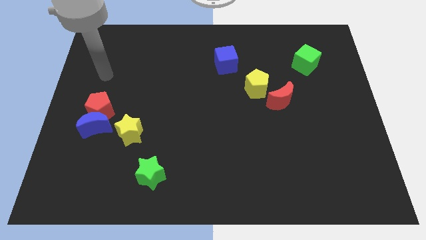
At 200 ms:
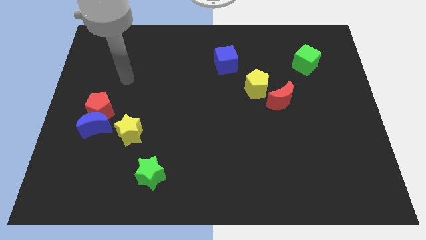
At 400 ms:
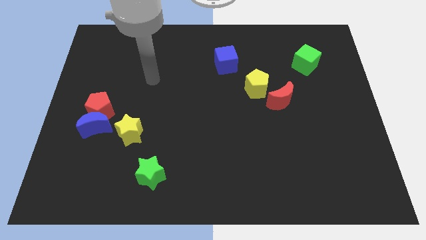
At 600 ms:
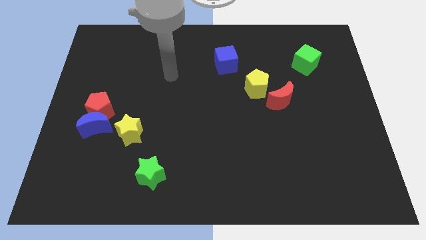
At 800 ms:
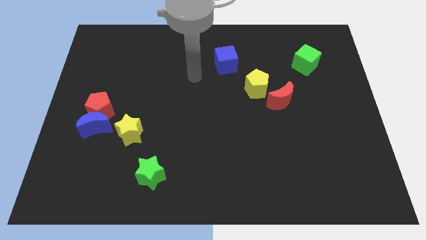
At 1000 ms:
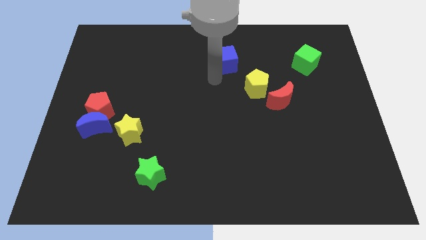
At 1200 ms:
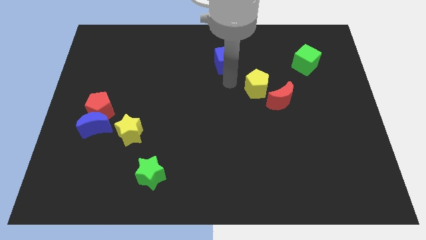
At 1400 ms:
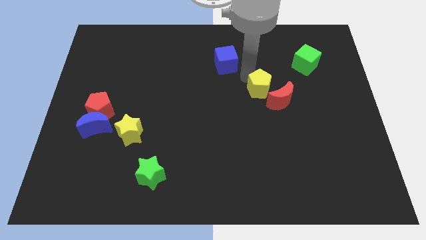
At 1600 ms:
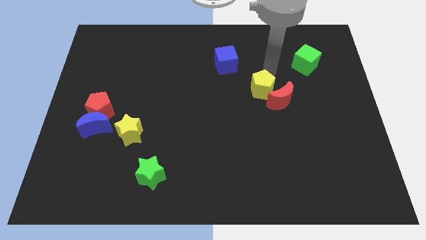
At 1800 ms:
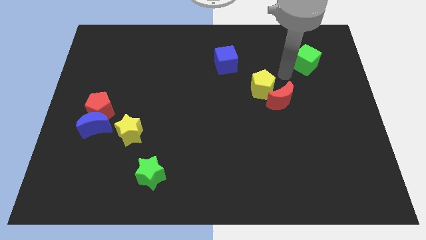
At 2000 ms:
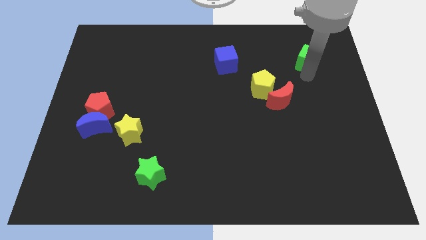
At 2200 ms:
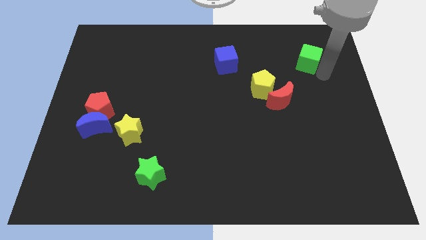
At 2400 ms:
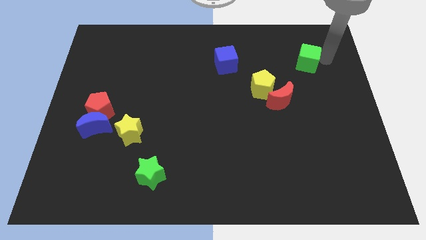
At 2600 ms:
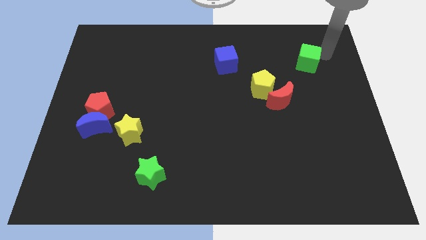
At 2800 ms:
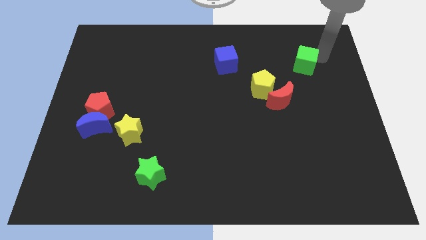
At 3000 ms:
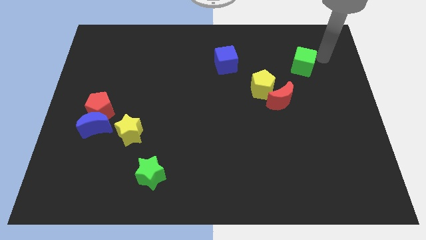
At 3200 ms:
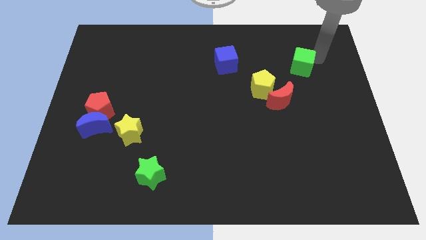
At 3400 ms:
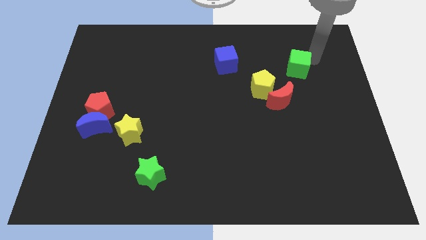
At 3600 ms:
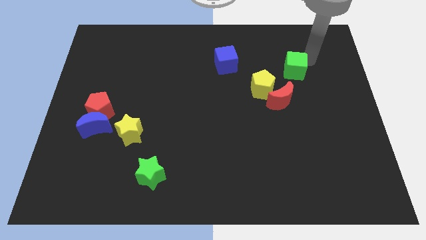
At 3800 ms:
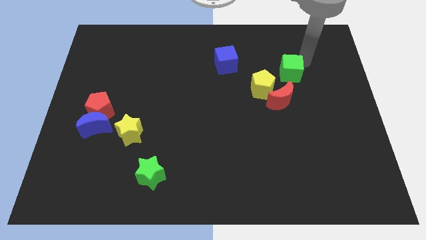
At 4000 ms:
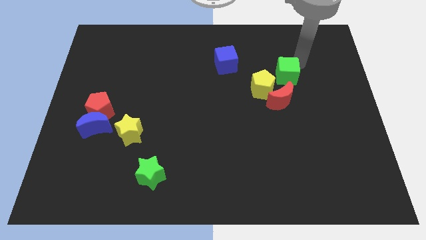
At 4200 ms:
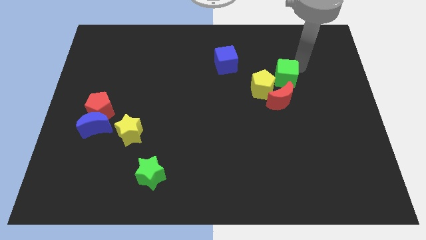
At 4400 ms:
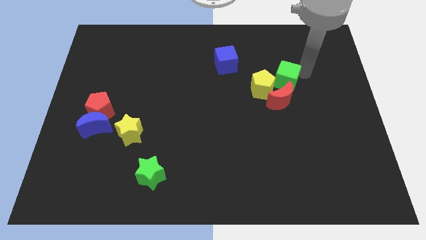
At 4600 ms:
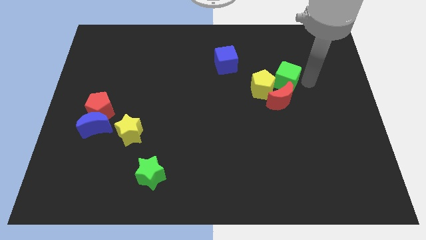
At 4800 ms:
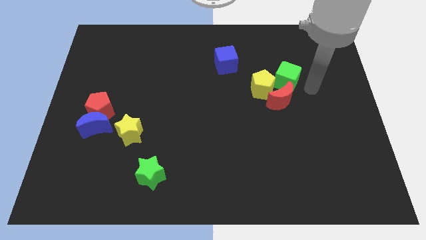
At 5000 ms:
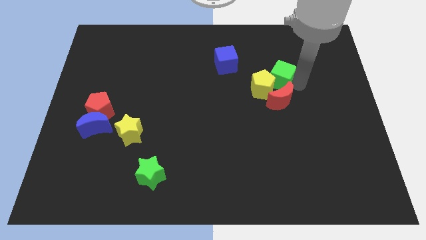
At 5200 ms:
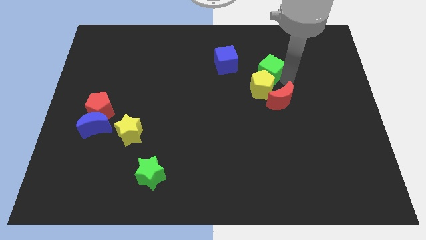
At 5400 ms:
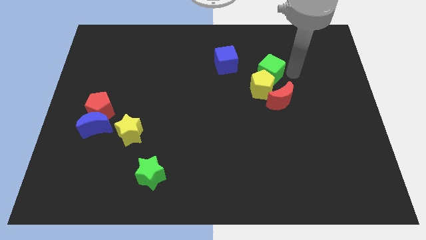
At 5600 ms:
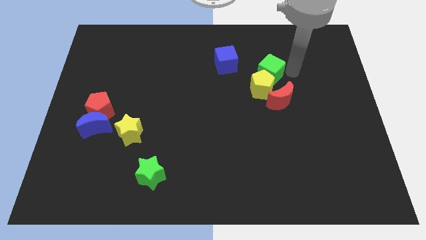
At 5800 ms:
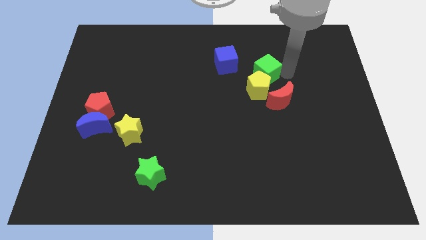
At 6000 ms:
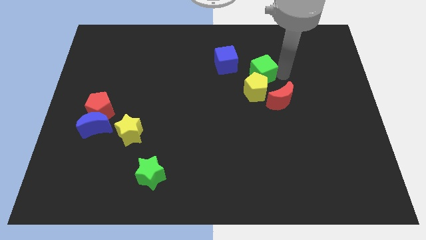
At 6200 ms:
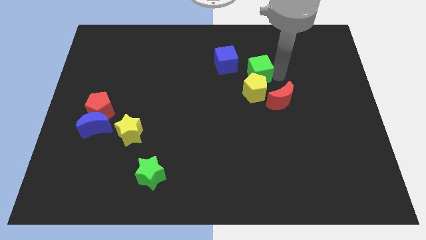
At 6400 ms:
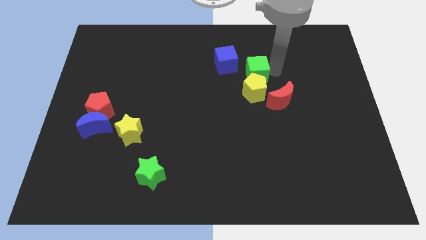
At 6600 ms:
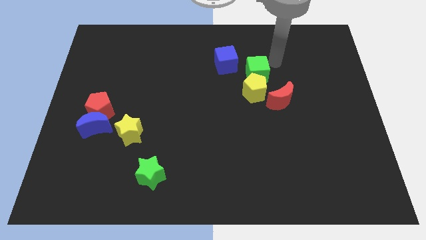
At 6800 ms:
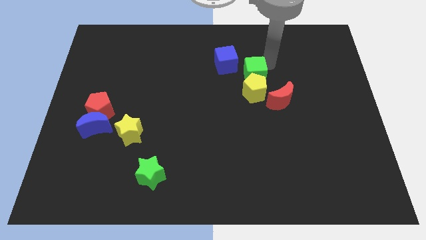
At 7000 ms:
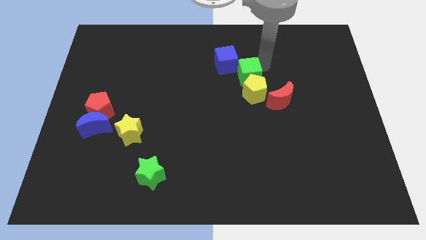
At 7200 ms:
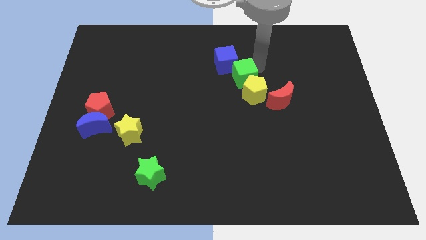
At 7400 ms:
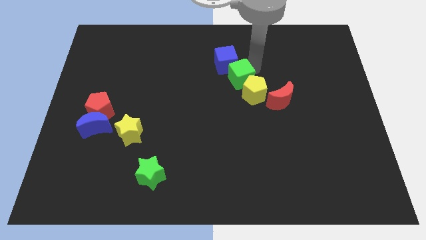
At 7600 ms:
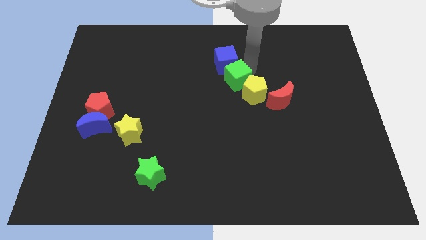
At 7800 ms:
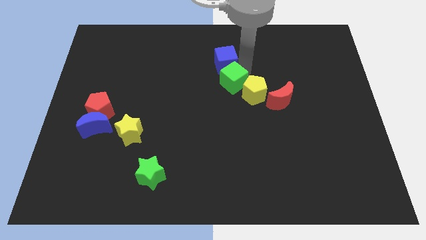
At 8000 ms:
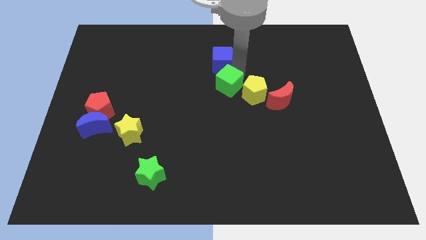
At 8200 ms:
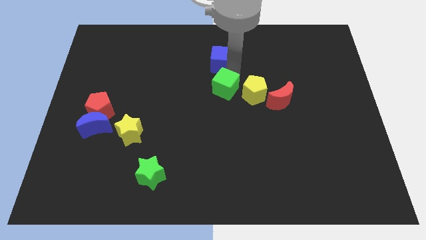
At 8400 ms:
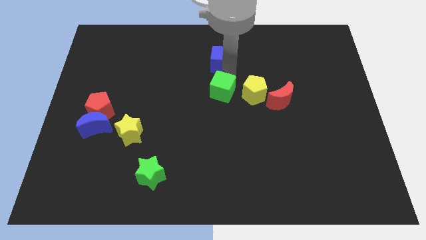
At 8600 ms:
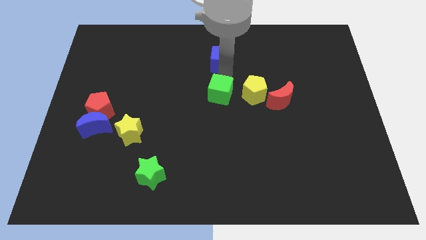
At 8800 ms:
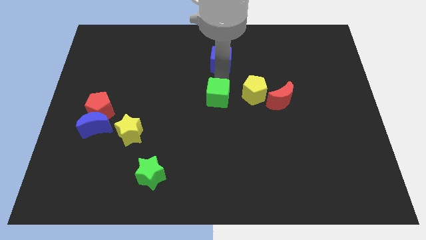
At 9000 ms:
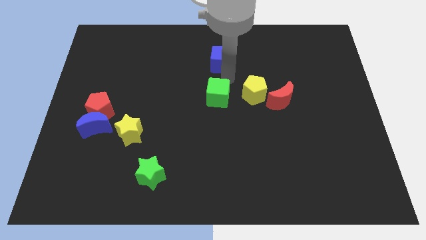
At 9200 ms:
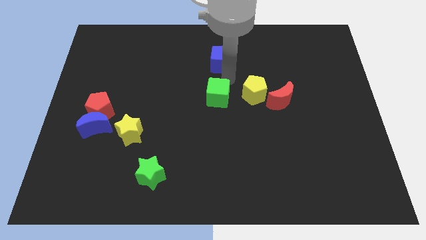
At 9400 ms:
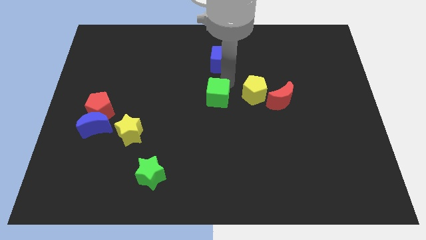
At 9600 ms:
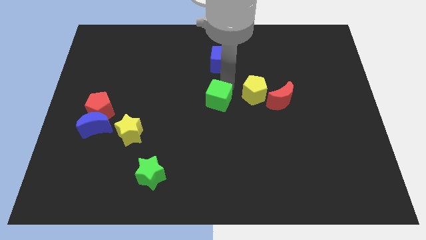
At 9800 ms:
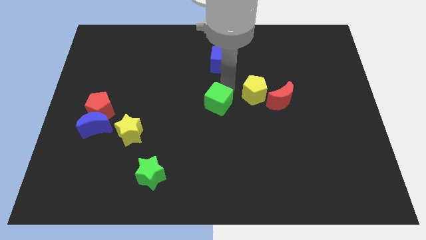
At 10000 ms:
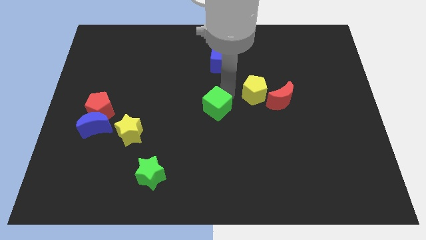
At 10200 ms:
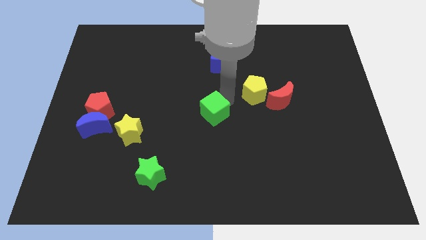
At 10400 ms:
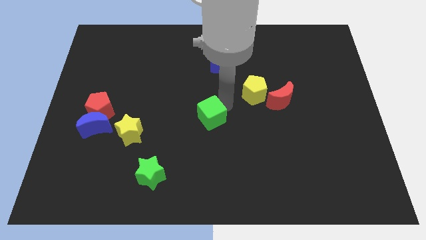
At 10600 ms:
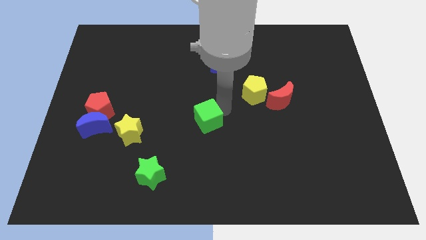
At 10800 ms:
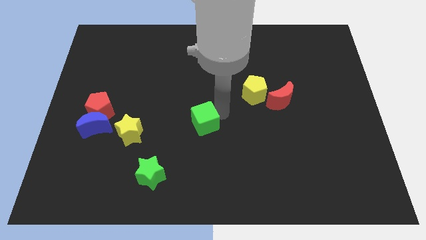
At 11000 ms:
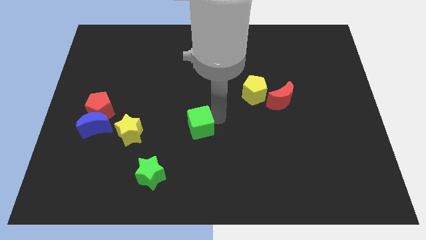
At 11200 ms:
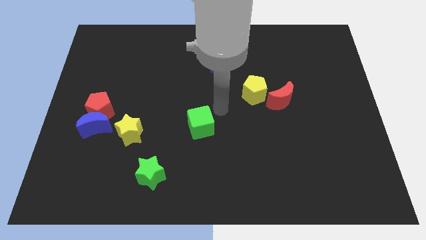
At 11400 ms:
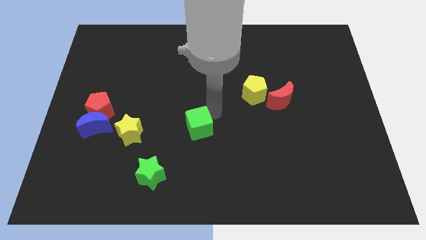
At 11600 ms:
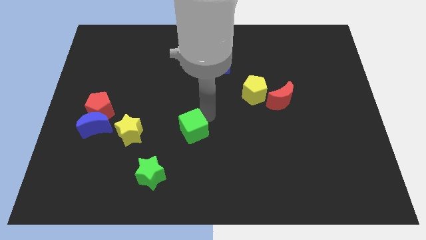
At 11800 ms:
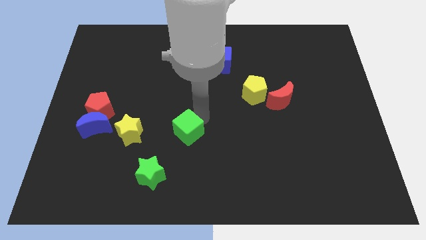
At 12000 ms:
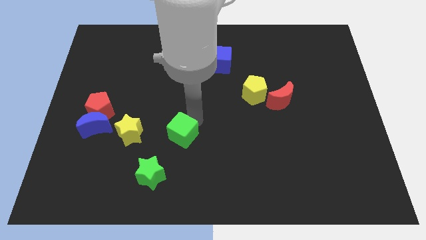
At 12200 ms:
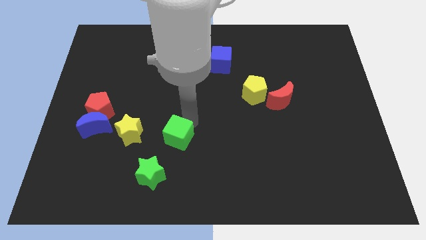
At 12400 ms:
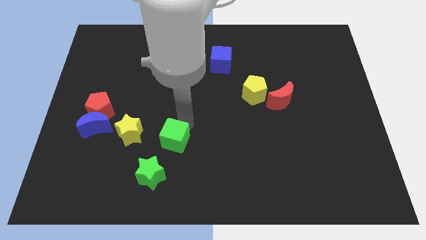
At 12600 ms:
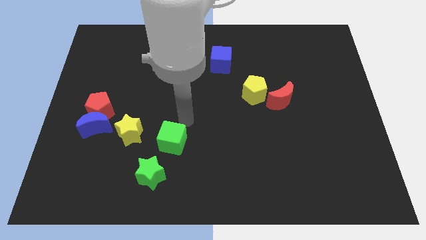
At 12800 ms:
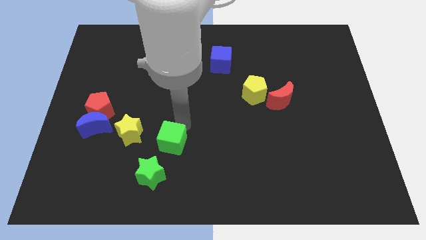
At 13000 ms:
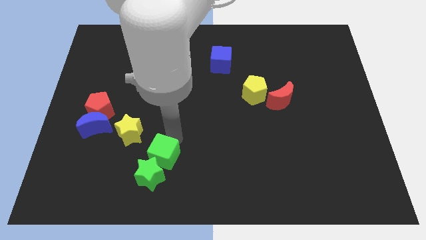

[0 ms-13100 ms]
push the green cube towards the green star

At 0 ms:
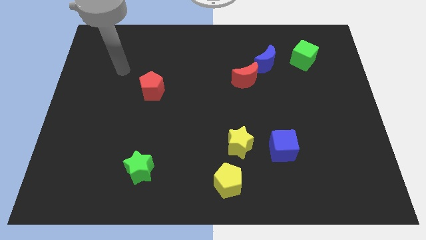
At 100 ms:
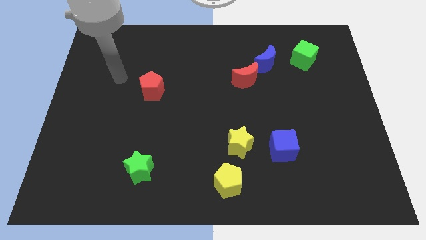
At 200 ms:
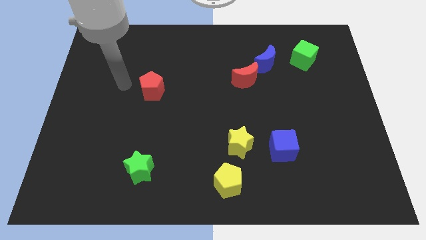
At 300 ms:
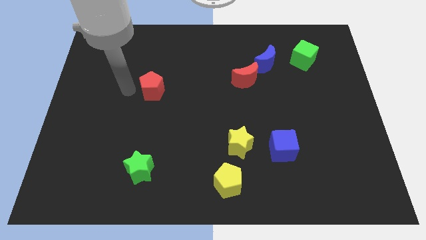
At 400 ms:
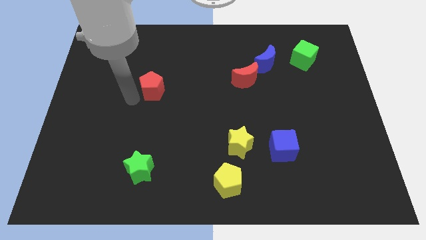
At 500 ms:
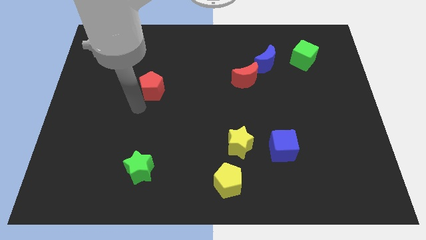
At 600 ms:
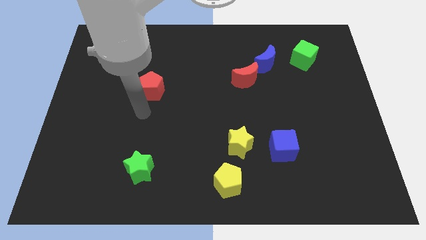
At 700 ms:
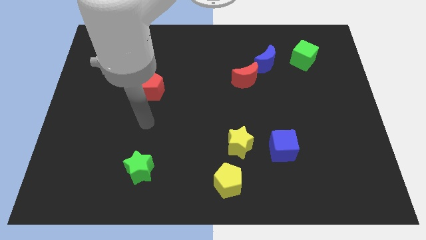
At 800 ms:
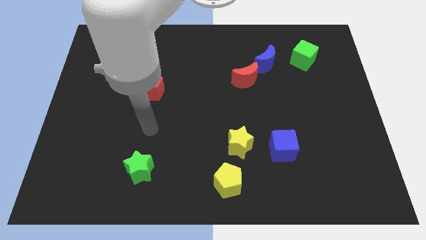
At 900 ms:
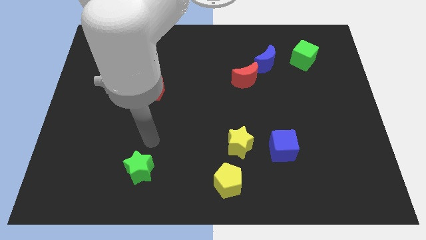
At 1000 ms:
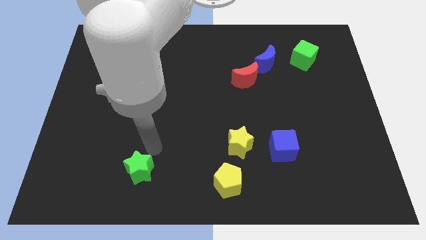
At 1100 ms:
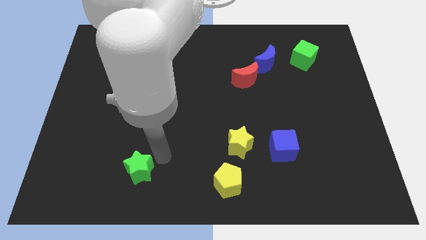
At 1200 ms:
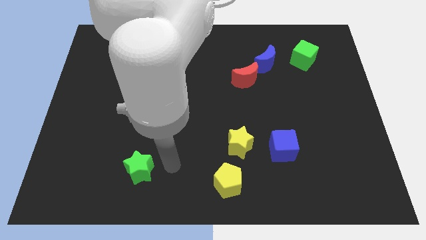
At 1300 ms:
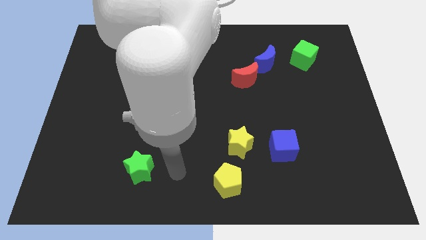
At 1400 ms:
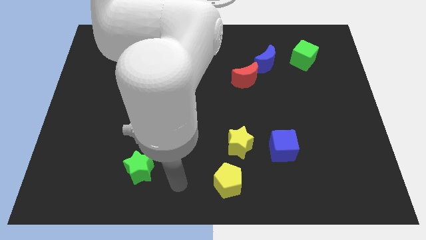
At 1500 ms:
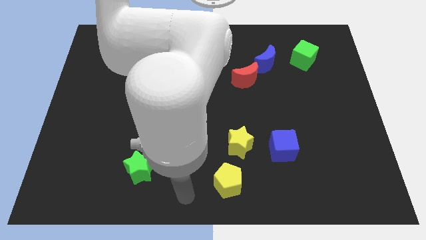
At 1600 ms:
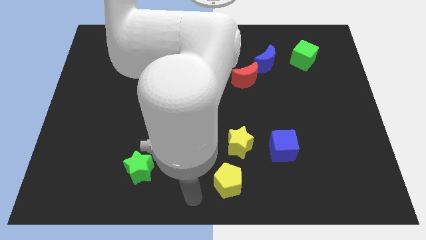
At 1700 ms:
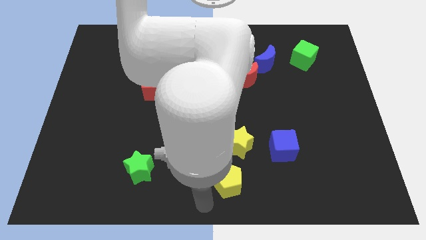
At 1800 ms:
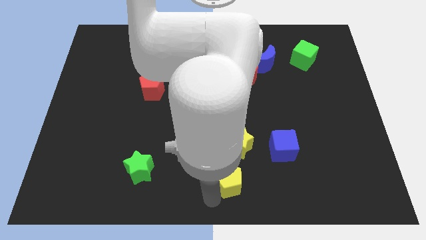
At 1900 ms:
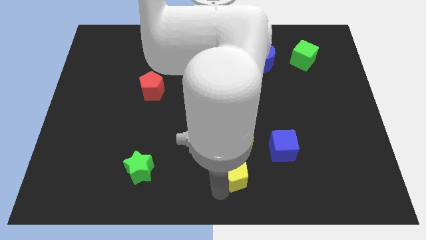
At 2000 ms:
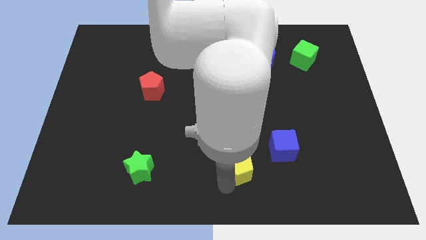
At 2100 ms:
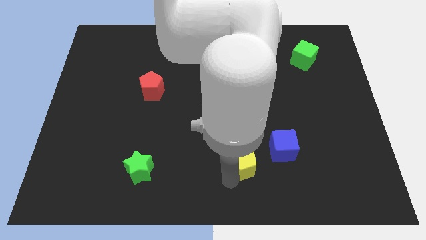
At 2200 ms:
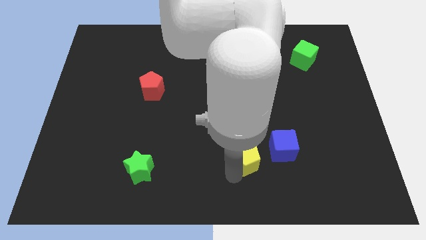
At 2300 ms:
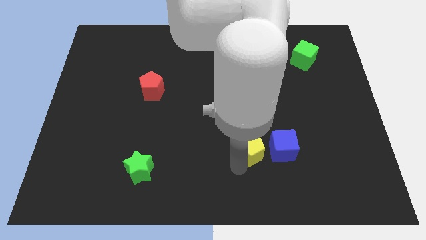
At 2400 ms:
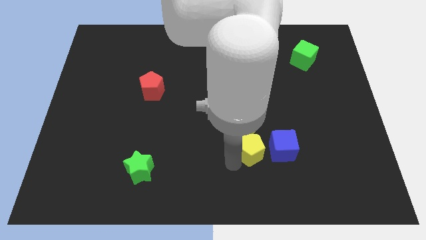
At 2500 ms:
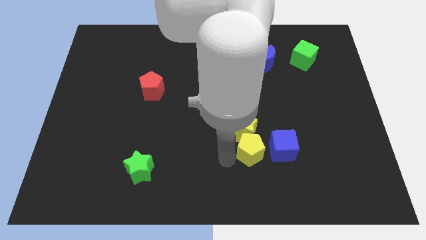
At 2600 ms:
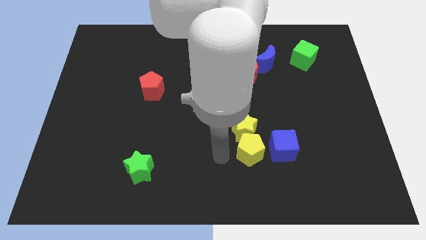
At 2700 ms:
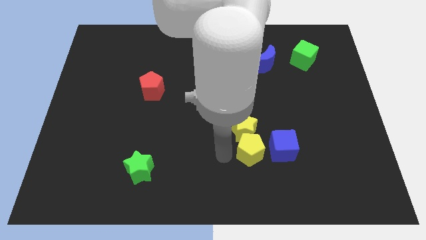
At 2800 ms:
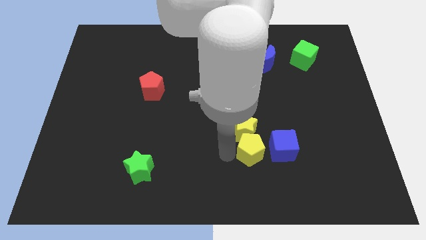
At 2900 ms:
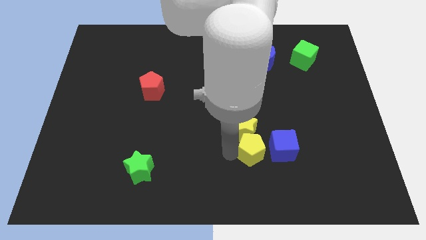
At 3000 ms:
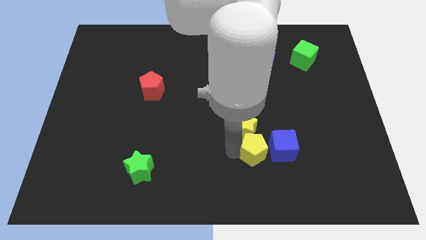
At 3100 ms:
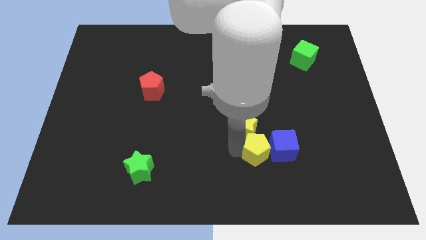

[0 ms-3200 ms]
slide the yellow pentagon close to the blue cube
